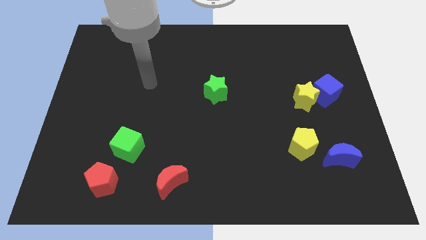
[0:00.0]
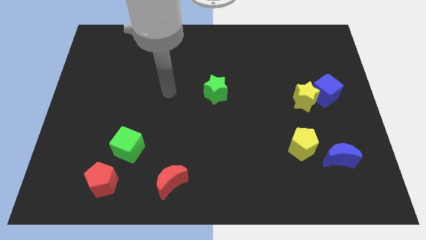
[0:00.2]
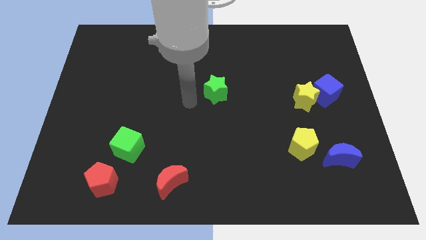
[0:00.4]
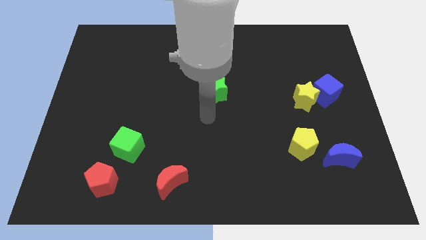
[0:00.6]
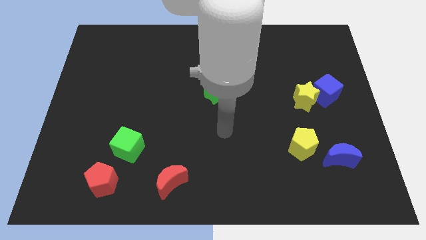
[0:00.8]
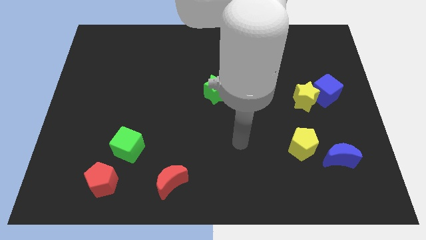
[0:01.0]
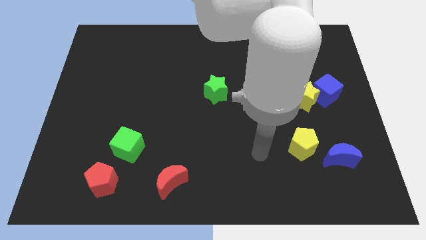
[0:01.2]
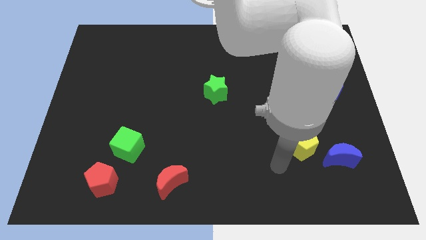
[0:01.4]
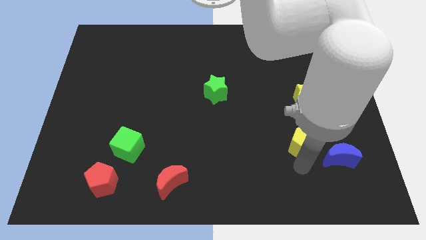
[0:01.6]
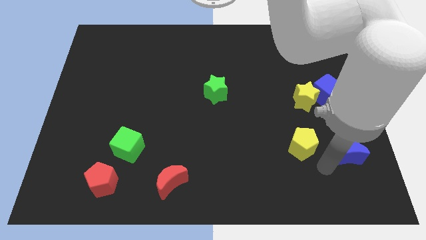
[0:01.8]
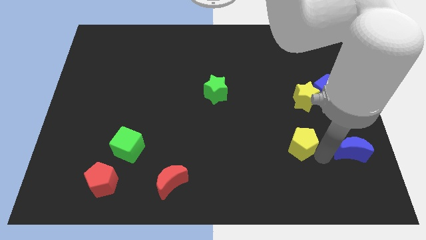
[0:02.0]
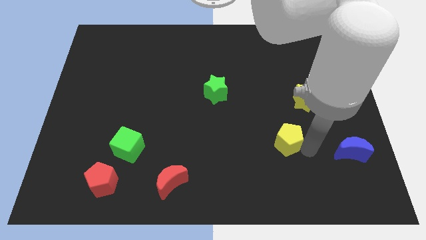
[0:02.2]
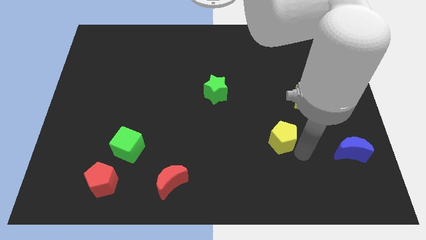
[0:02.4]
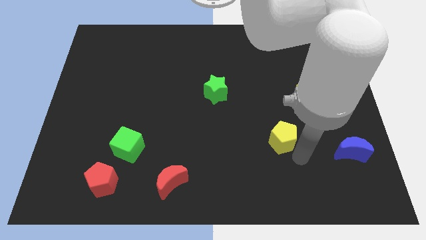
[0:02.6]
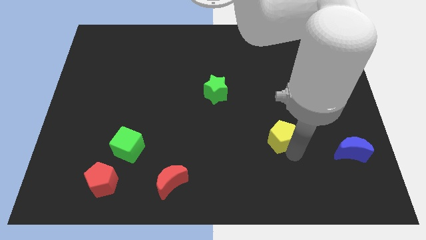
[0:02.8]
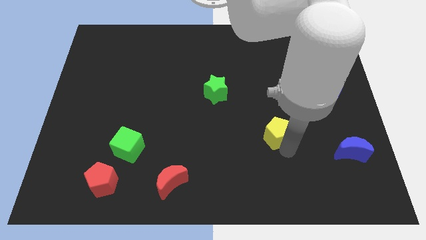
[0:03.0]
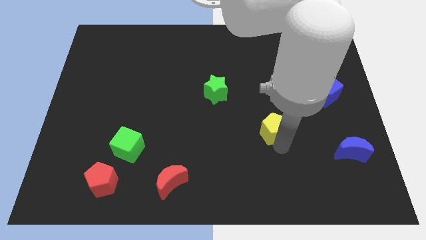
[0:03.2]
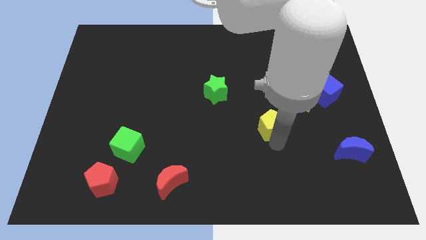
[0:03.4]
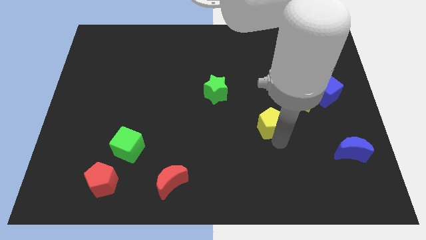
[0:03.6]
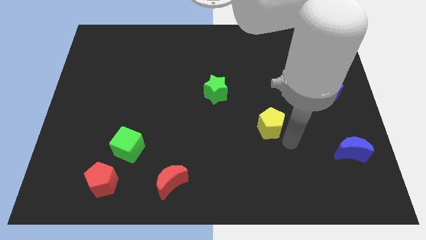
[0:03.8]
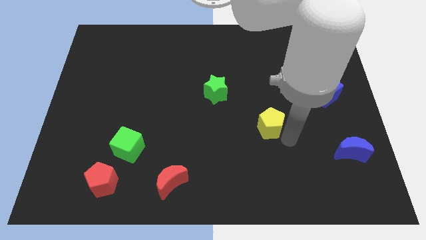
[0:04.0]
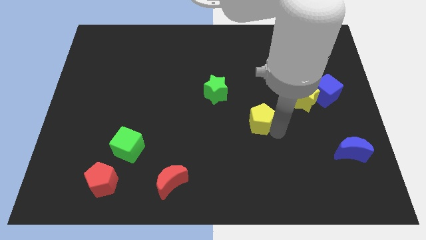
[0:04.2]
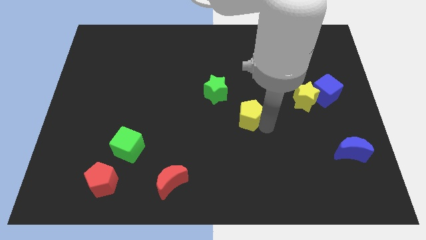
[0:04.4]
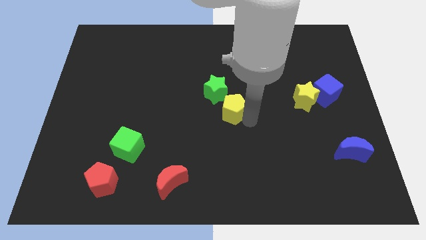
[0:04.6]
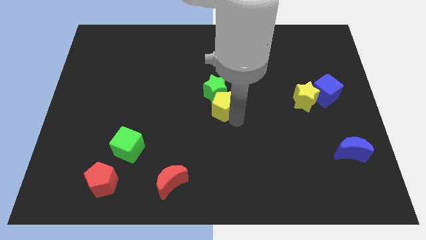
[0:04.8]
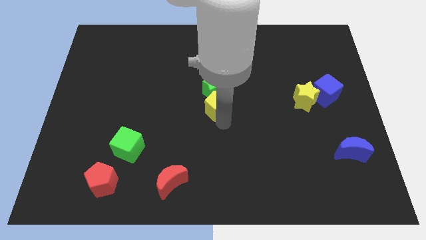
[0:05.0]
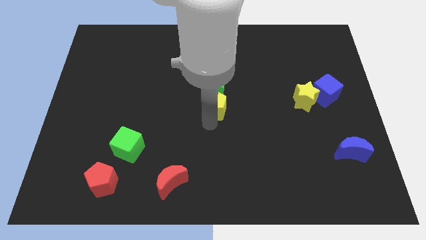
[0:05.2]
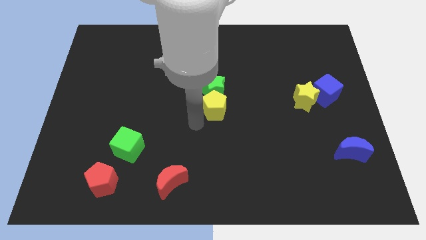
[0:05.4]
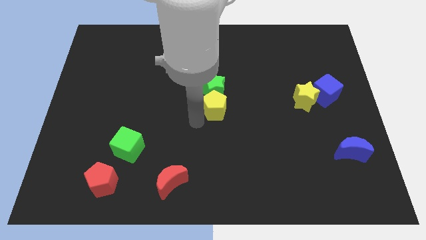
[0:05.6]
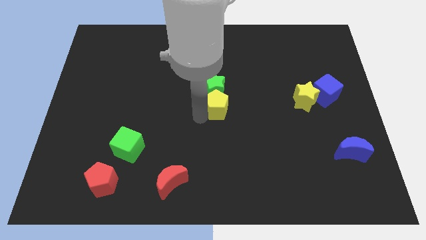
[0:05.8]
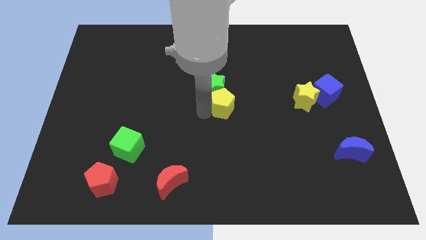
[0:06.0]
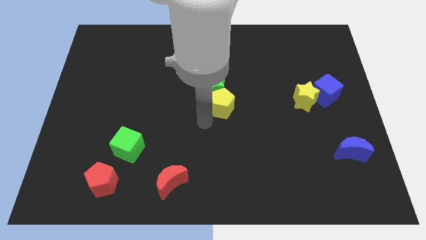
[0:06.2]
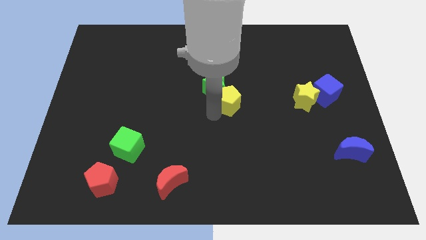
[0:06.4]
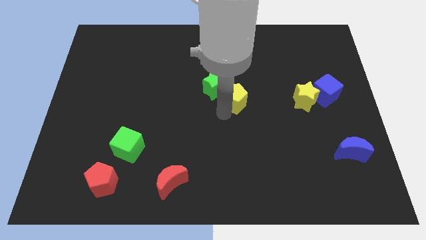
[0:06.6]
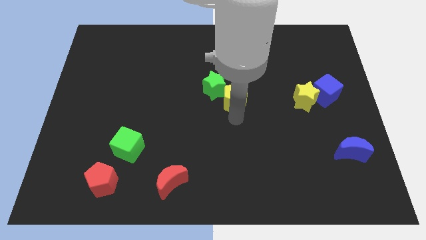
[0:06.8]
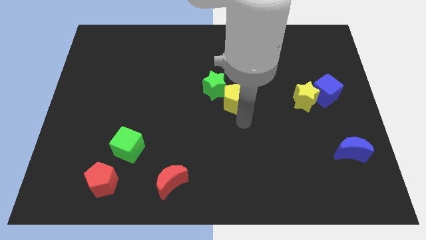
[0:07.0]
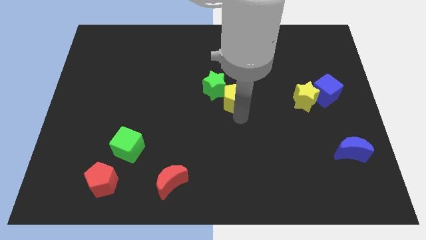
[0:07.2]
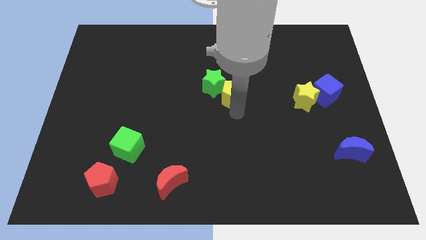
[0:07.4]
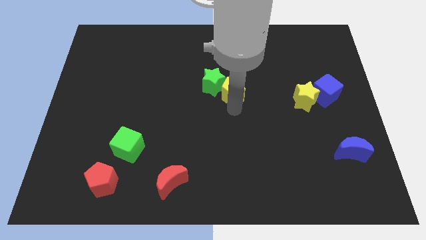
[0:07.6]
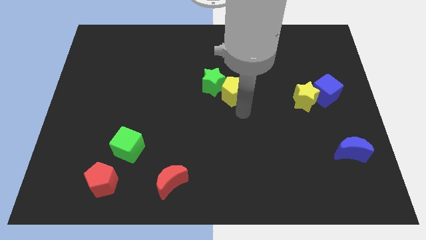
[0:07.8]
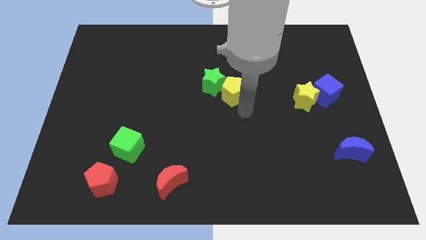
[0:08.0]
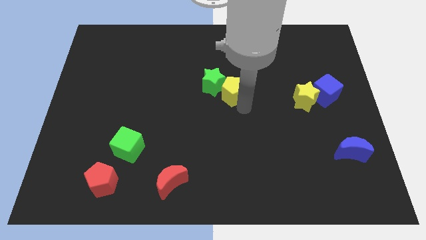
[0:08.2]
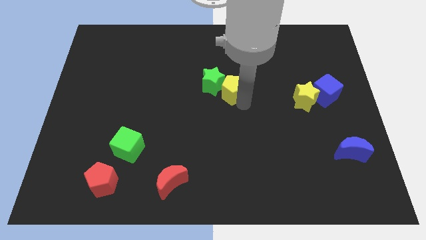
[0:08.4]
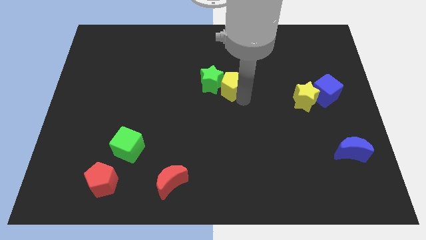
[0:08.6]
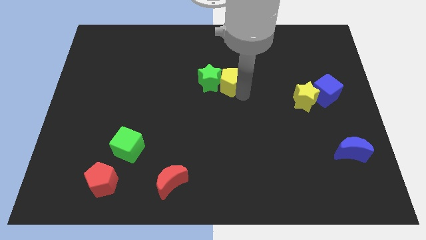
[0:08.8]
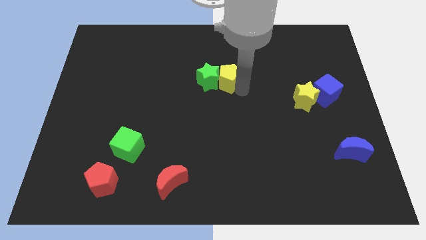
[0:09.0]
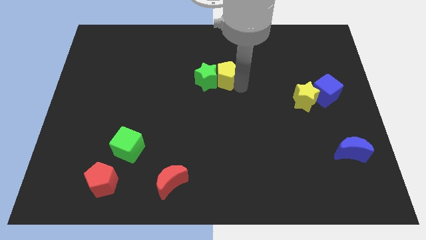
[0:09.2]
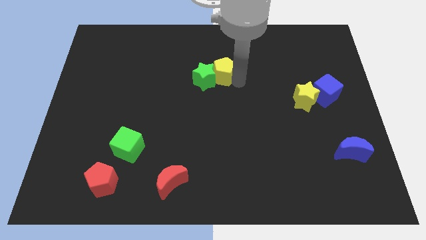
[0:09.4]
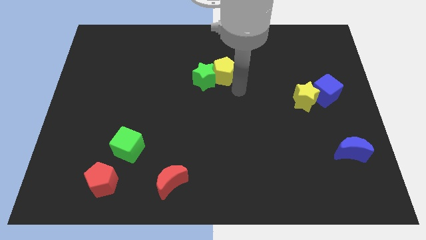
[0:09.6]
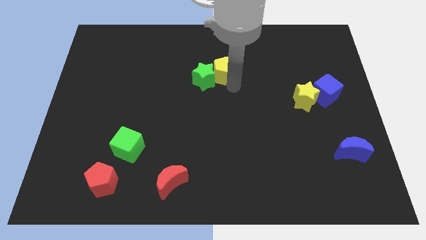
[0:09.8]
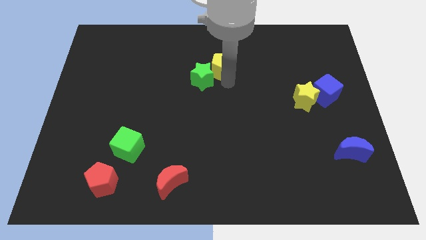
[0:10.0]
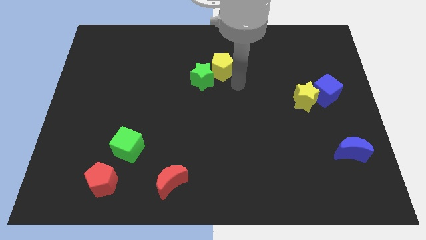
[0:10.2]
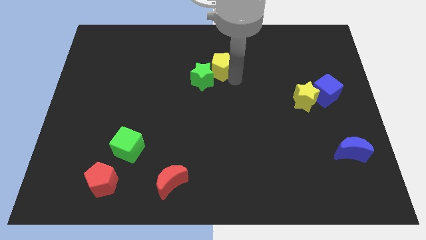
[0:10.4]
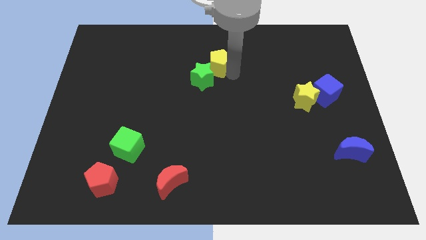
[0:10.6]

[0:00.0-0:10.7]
move the yellow pentagon to the top side of the green star

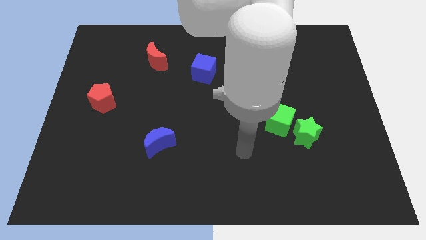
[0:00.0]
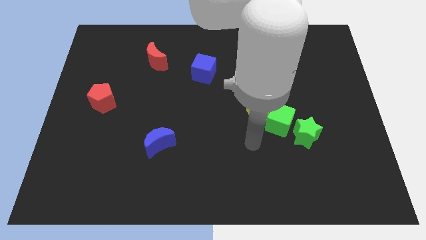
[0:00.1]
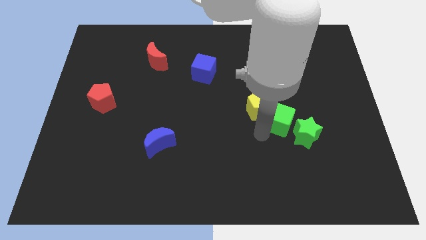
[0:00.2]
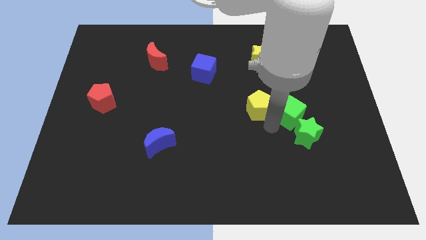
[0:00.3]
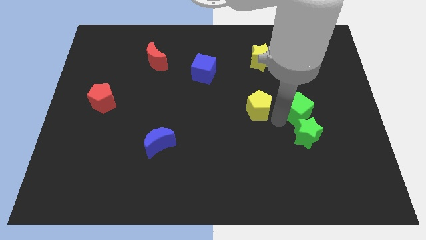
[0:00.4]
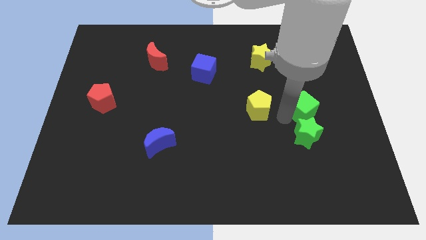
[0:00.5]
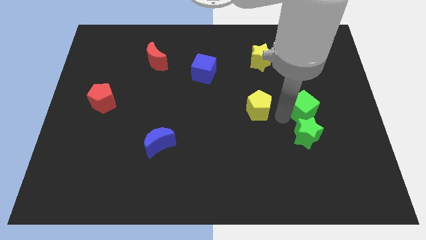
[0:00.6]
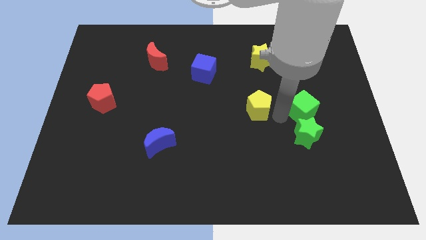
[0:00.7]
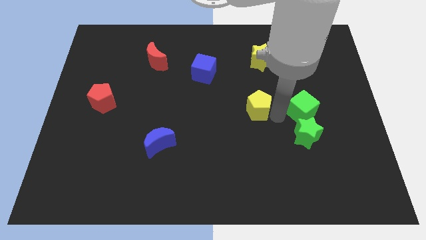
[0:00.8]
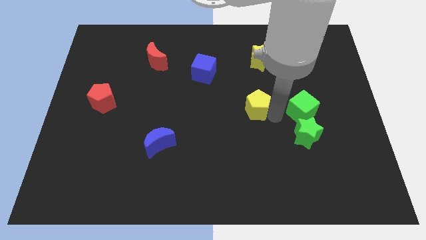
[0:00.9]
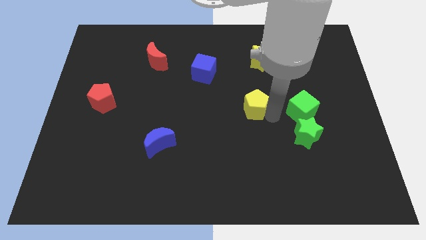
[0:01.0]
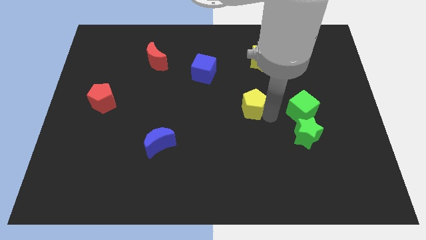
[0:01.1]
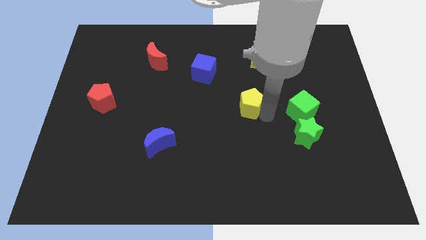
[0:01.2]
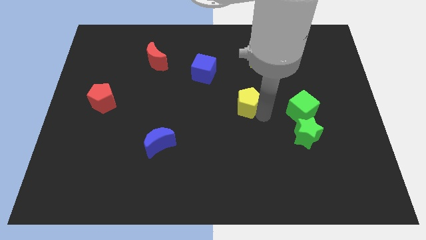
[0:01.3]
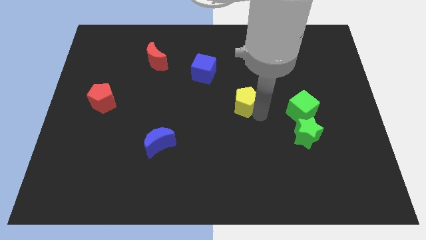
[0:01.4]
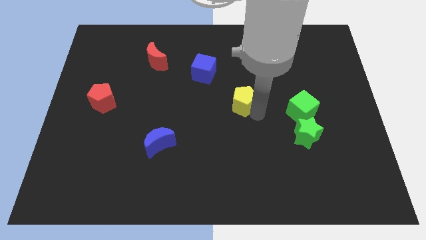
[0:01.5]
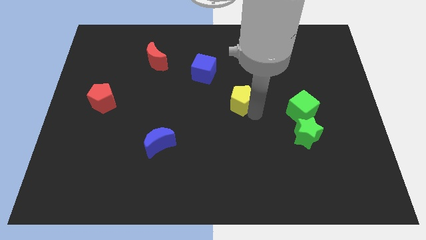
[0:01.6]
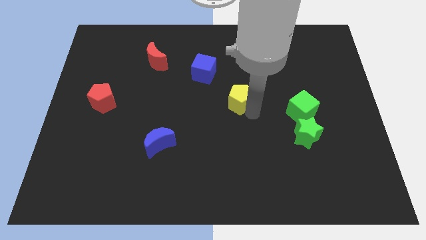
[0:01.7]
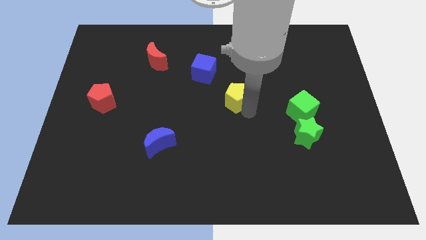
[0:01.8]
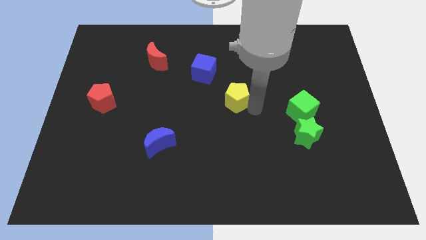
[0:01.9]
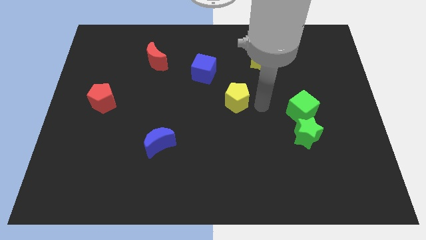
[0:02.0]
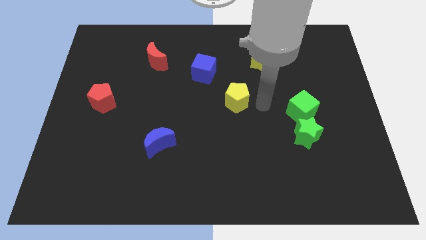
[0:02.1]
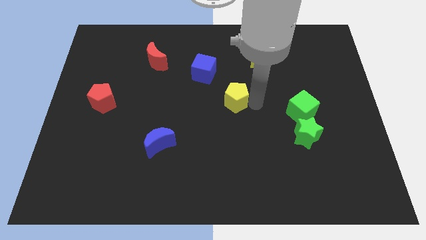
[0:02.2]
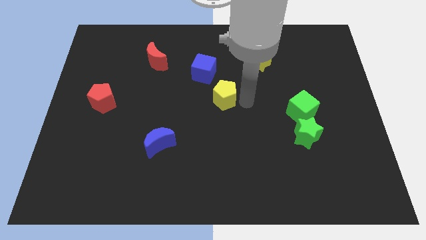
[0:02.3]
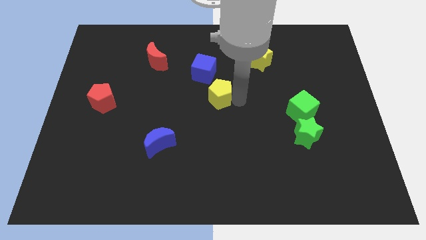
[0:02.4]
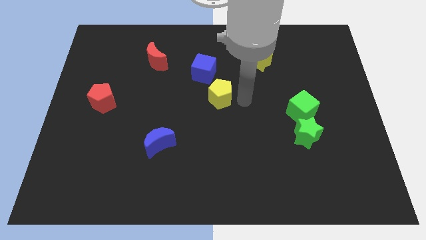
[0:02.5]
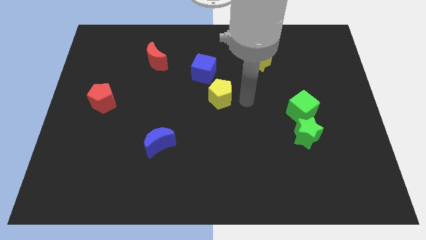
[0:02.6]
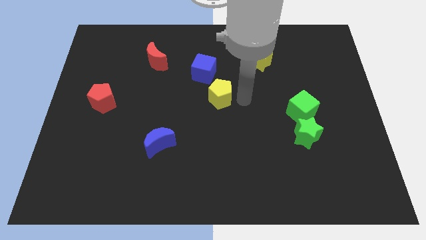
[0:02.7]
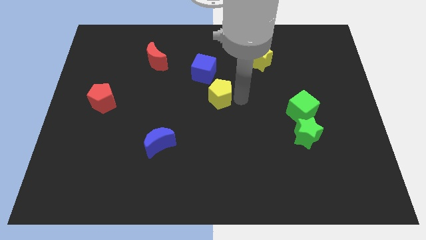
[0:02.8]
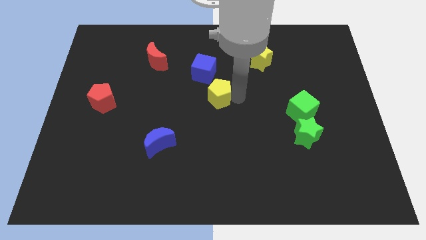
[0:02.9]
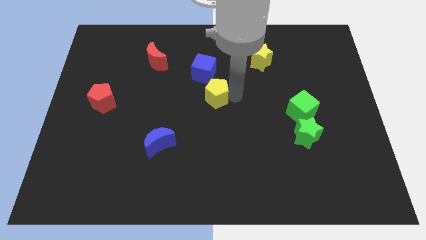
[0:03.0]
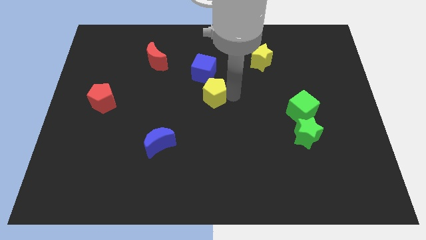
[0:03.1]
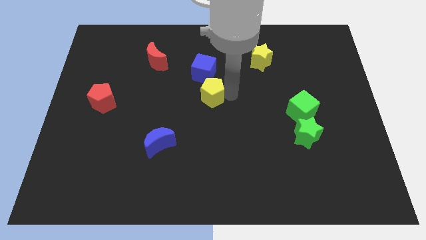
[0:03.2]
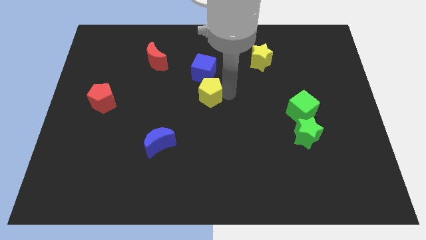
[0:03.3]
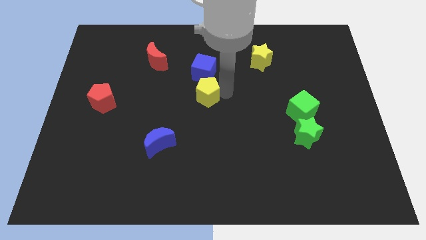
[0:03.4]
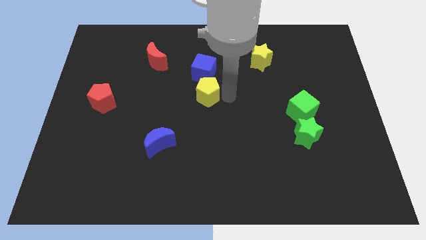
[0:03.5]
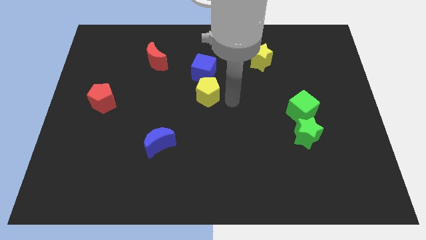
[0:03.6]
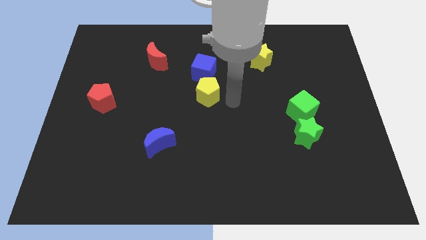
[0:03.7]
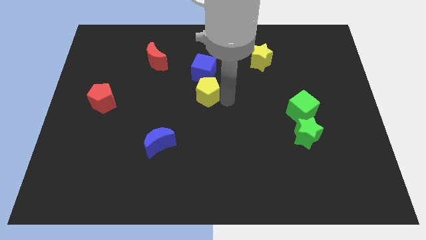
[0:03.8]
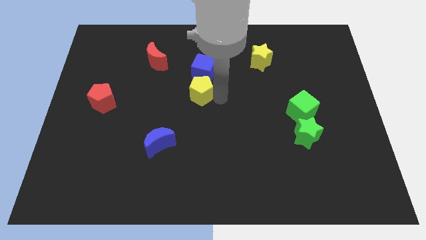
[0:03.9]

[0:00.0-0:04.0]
move the yellow pentagon to the bottom left side of the blue cube
